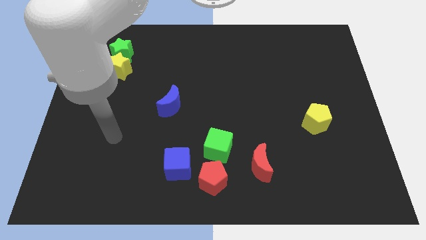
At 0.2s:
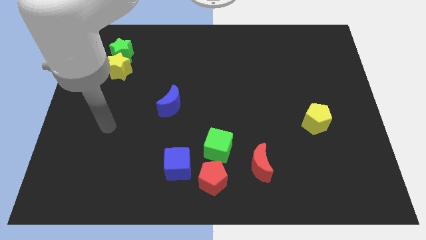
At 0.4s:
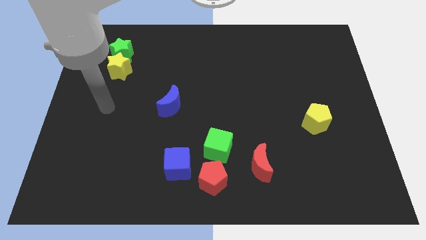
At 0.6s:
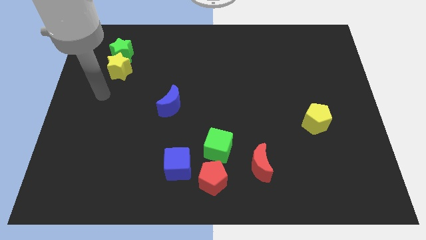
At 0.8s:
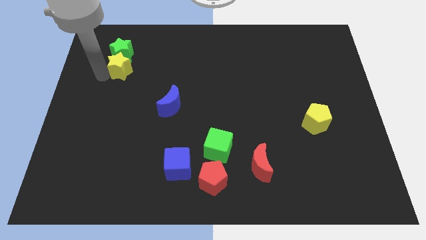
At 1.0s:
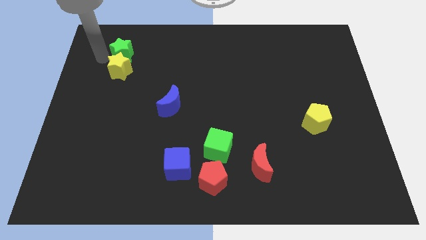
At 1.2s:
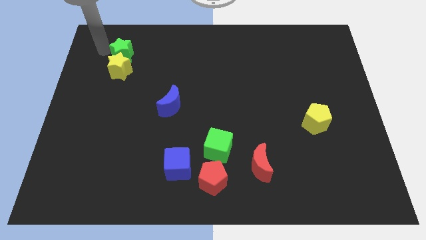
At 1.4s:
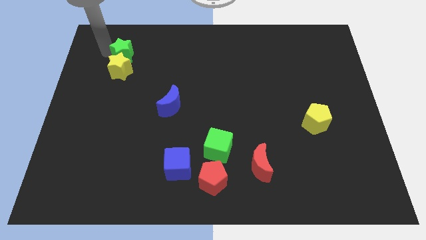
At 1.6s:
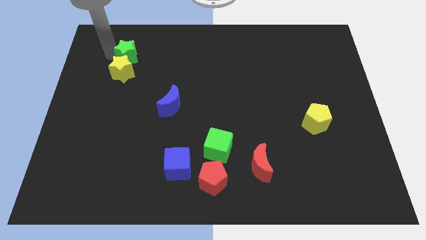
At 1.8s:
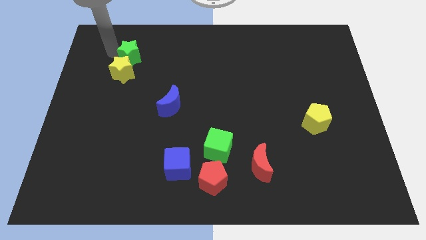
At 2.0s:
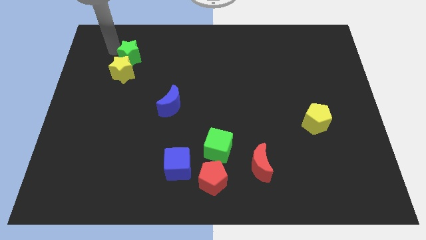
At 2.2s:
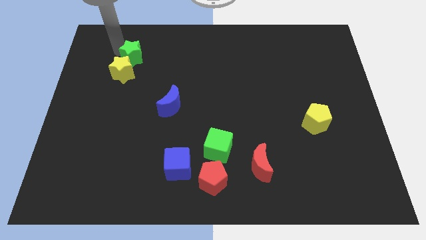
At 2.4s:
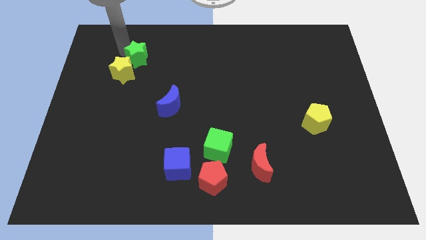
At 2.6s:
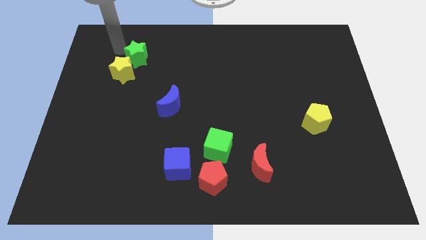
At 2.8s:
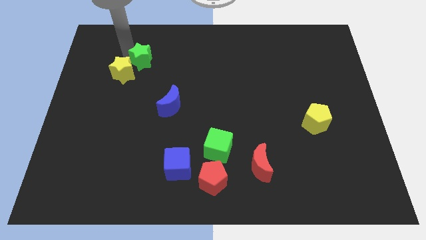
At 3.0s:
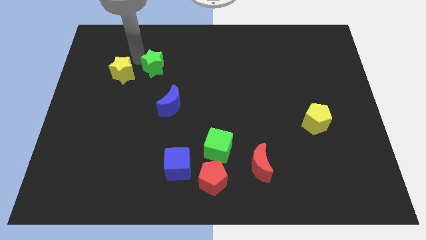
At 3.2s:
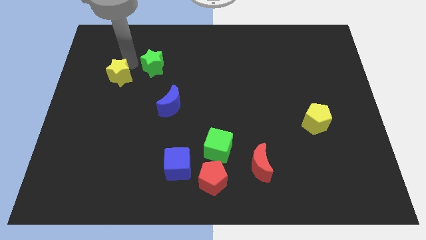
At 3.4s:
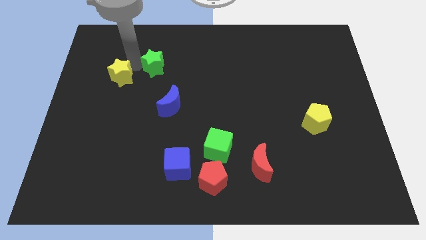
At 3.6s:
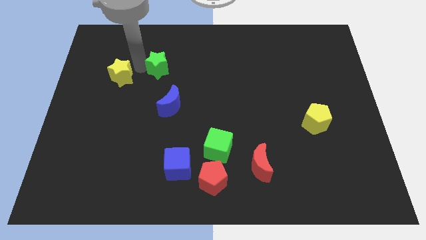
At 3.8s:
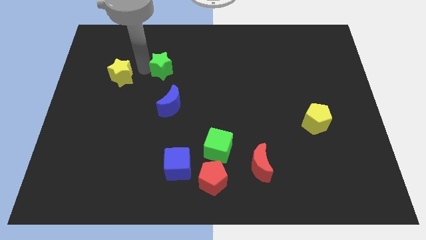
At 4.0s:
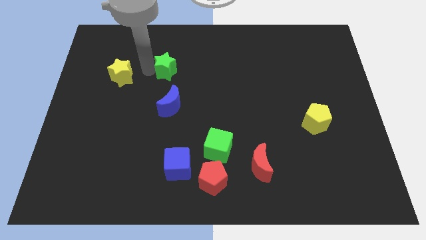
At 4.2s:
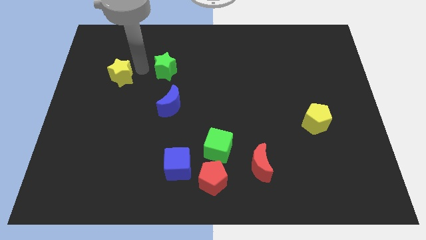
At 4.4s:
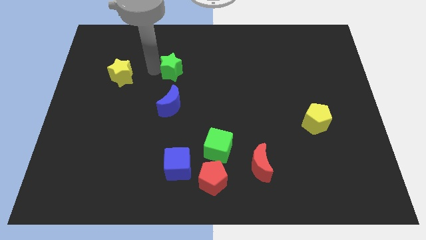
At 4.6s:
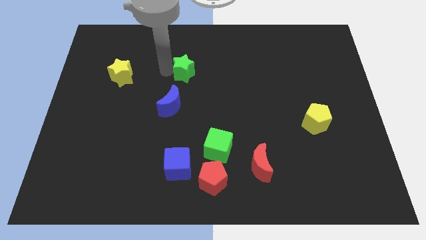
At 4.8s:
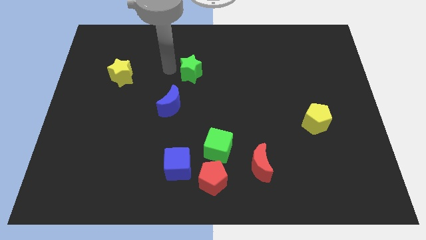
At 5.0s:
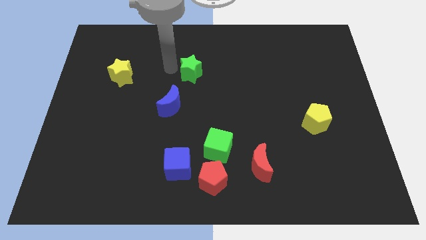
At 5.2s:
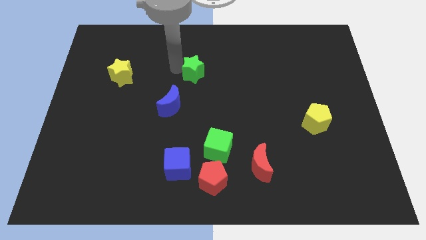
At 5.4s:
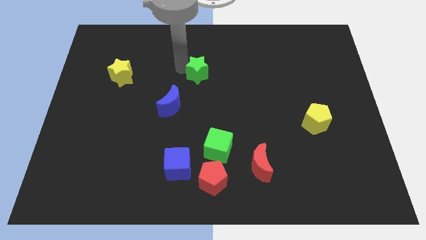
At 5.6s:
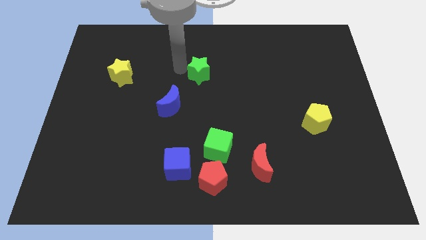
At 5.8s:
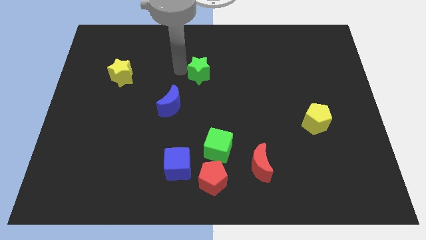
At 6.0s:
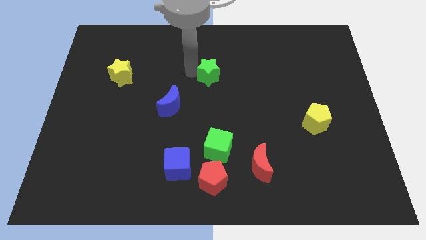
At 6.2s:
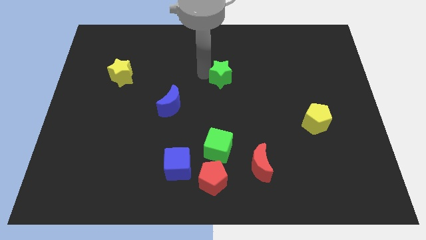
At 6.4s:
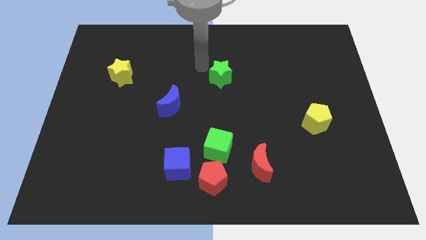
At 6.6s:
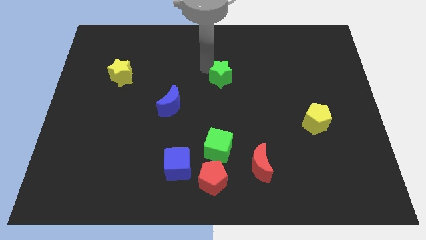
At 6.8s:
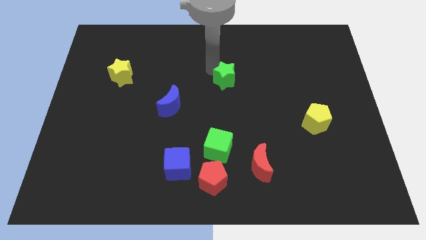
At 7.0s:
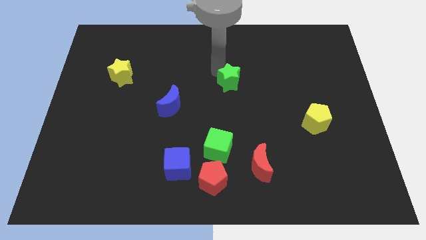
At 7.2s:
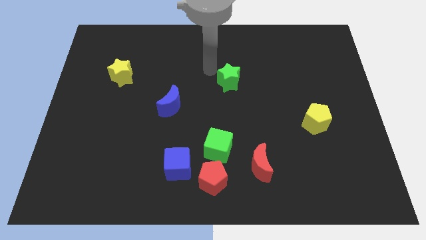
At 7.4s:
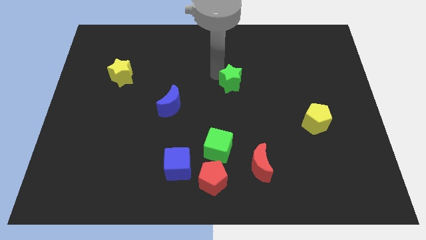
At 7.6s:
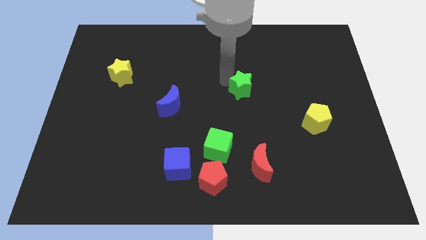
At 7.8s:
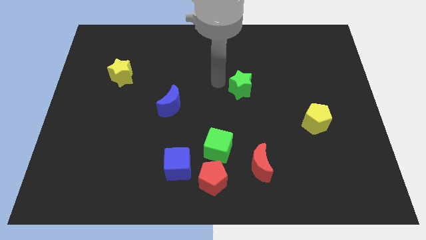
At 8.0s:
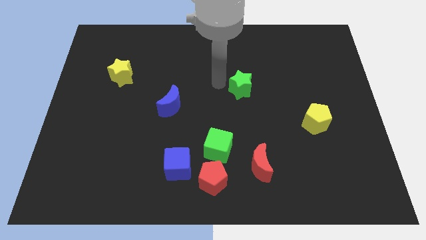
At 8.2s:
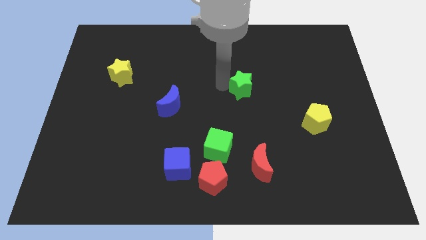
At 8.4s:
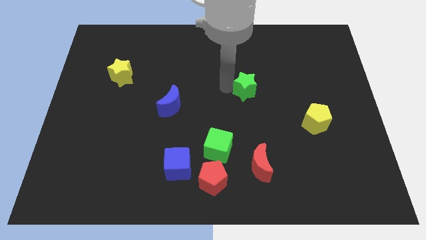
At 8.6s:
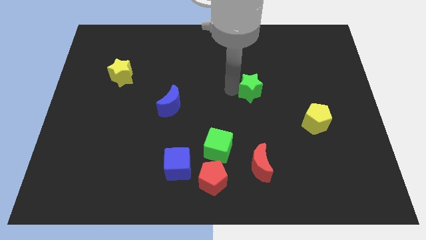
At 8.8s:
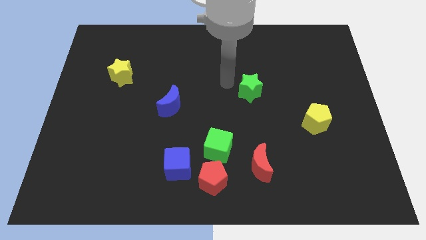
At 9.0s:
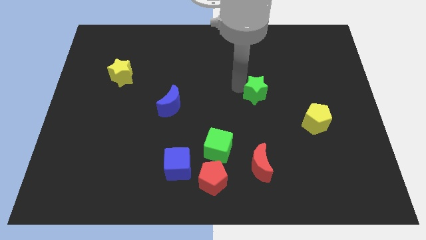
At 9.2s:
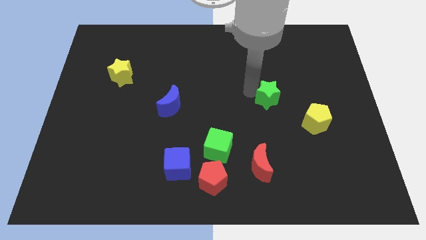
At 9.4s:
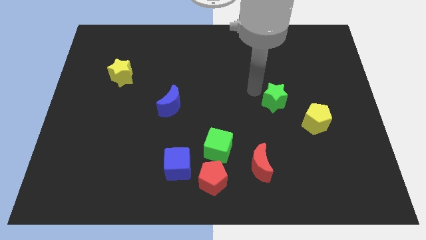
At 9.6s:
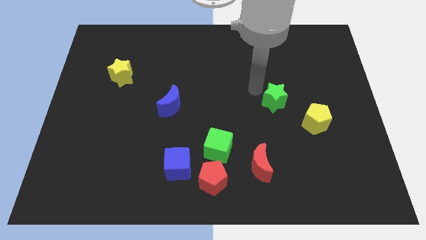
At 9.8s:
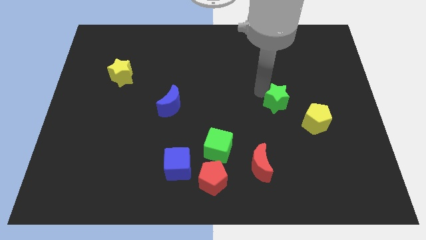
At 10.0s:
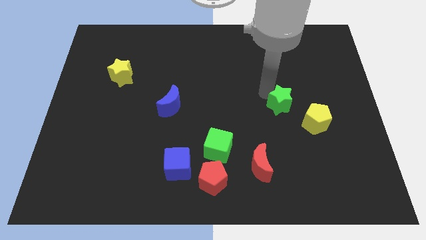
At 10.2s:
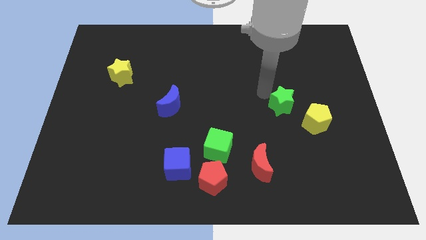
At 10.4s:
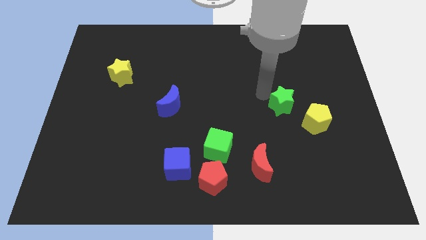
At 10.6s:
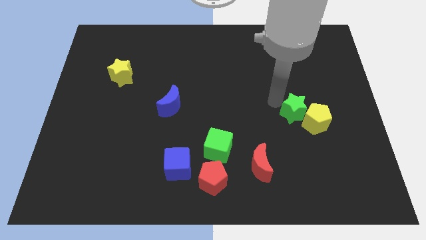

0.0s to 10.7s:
push the green star next to the yellow pentagon

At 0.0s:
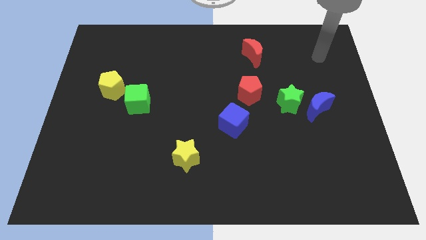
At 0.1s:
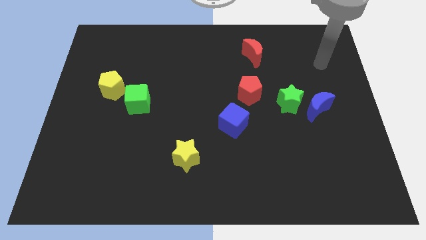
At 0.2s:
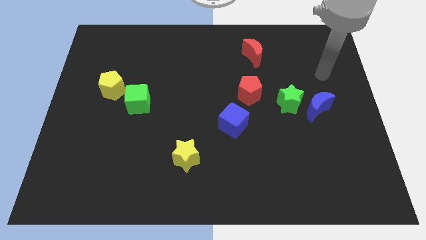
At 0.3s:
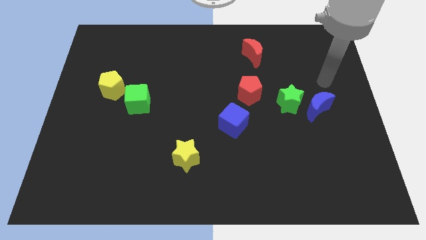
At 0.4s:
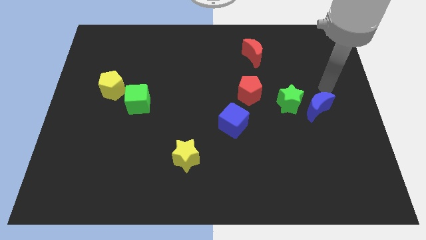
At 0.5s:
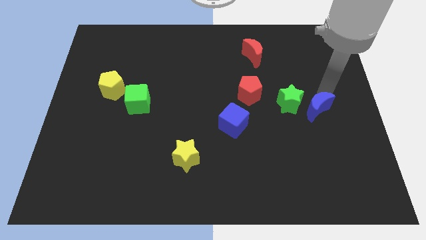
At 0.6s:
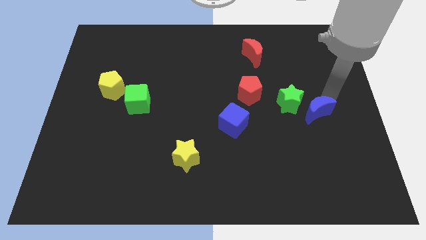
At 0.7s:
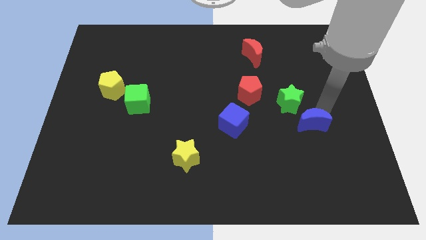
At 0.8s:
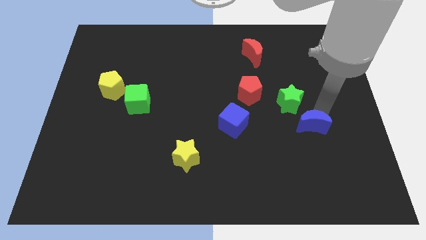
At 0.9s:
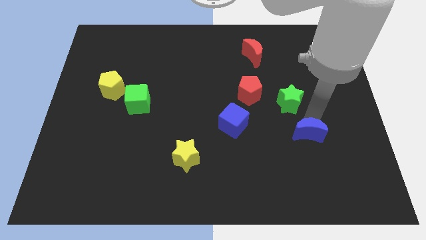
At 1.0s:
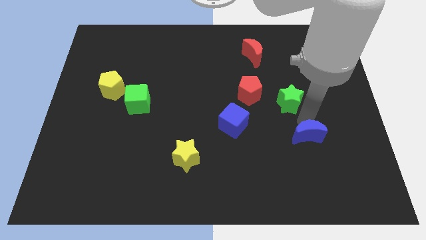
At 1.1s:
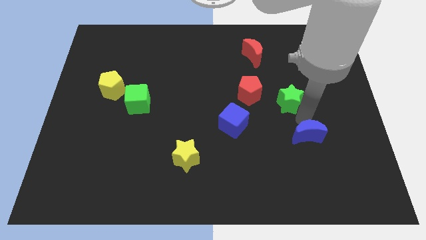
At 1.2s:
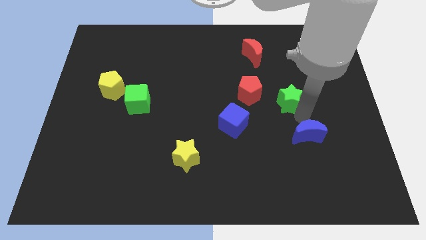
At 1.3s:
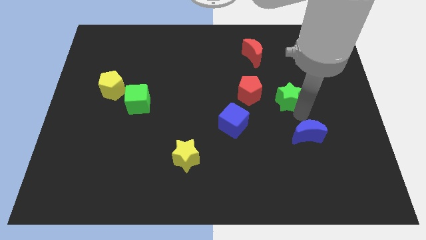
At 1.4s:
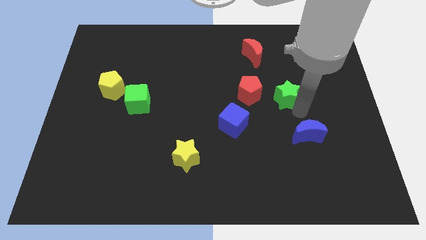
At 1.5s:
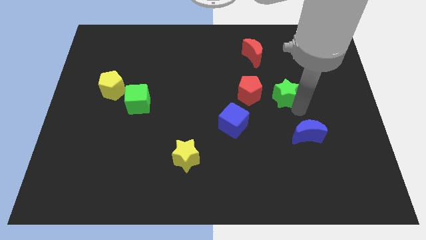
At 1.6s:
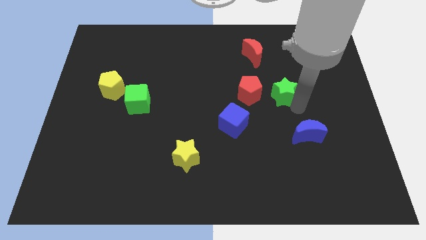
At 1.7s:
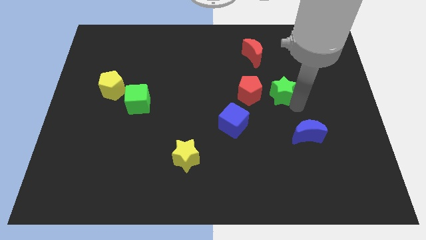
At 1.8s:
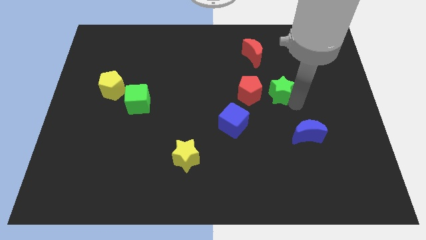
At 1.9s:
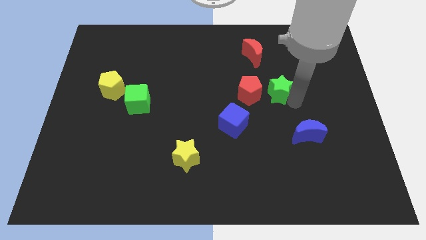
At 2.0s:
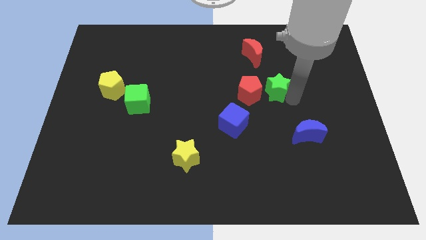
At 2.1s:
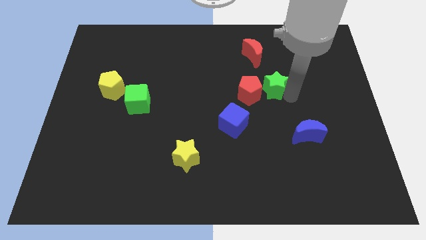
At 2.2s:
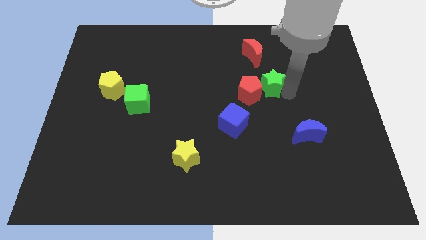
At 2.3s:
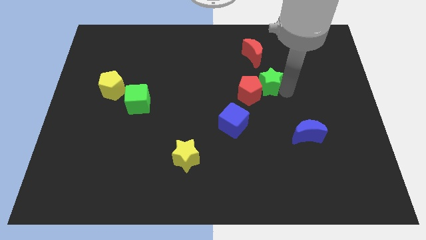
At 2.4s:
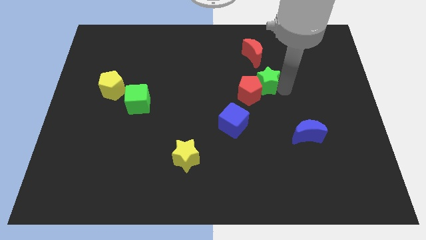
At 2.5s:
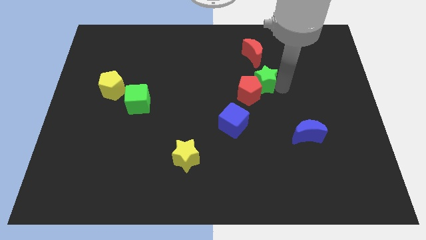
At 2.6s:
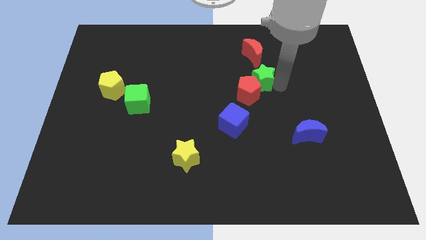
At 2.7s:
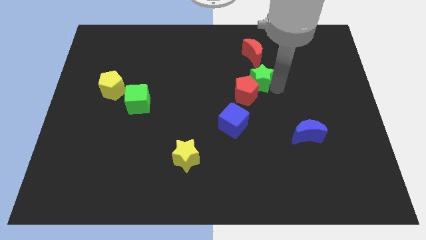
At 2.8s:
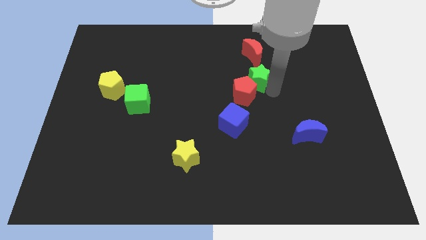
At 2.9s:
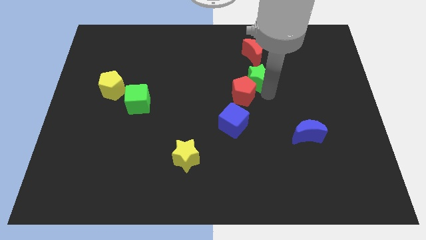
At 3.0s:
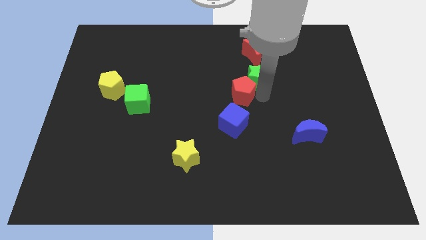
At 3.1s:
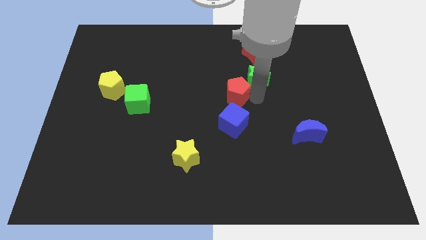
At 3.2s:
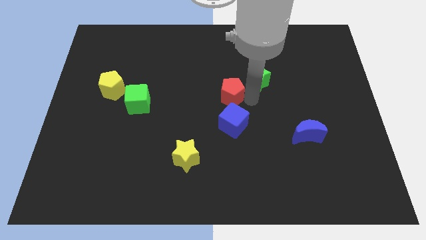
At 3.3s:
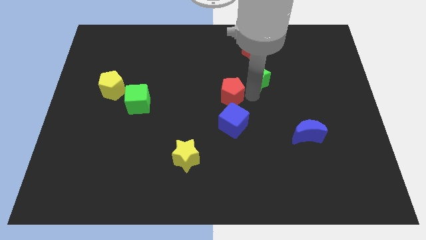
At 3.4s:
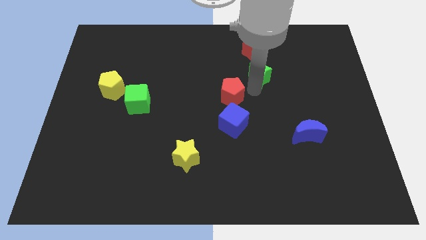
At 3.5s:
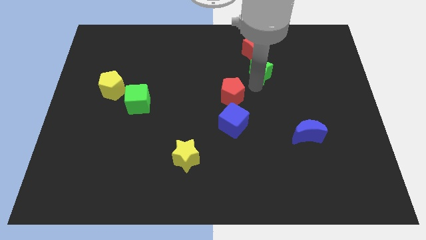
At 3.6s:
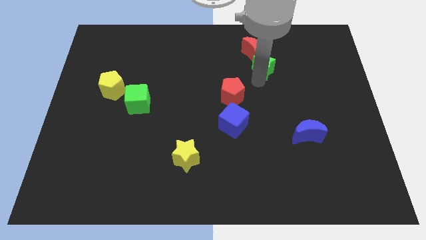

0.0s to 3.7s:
slide the green star close to the red moon
